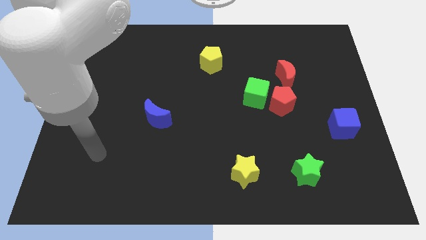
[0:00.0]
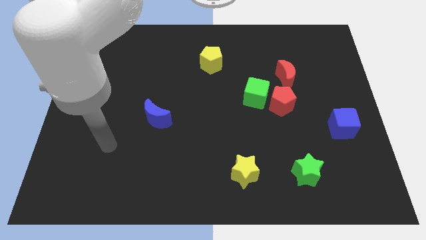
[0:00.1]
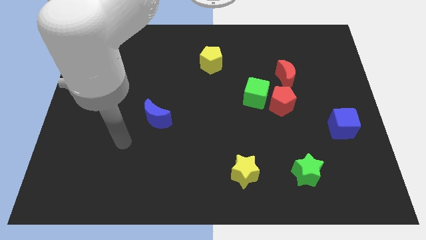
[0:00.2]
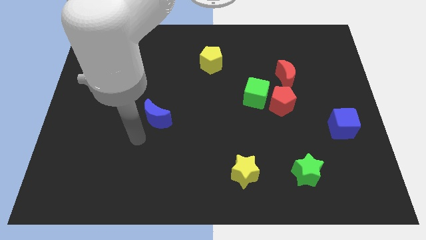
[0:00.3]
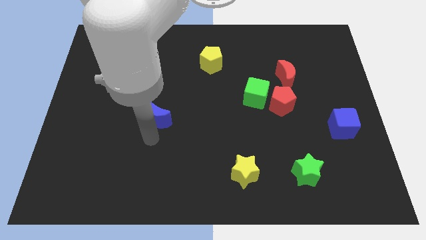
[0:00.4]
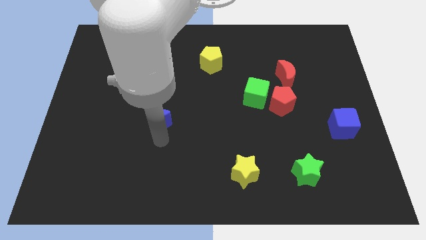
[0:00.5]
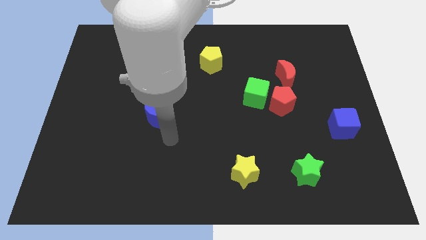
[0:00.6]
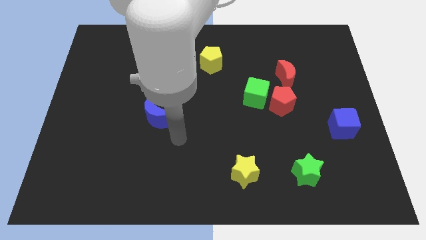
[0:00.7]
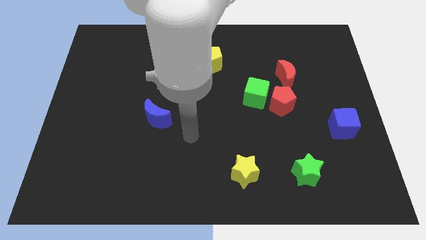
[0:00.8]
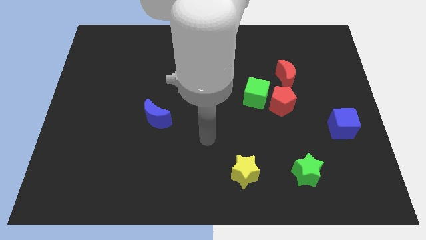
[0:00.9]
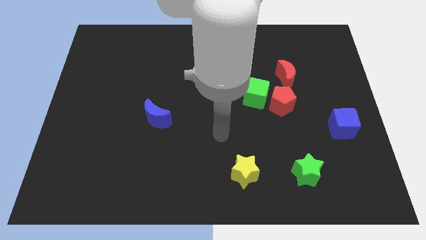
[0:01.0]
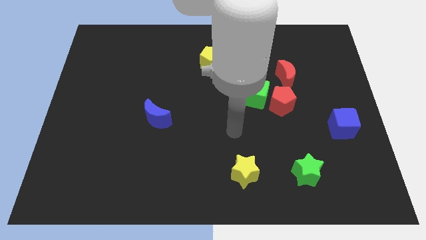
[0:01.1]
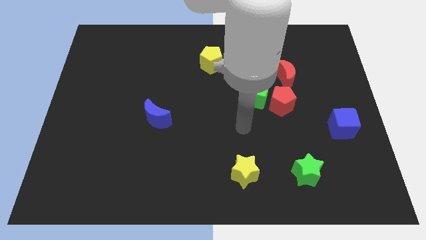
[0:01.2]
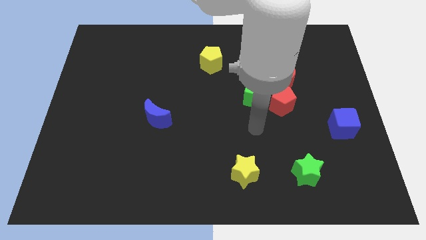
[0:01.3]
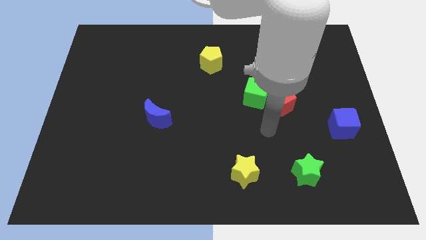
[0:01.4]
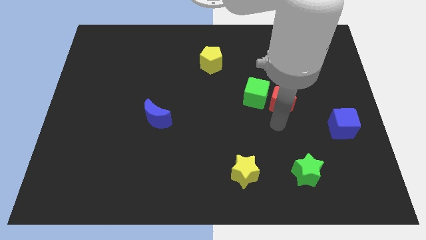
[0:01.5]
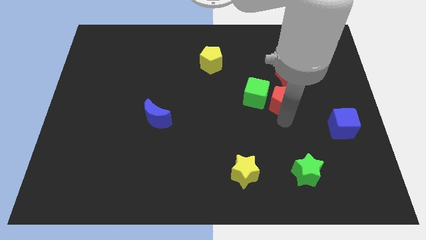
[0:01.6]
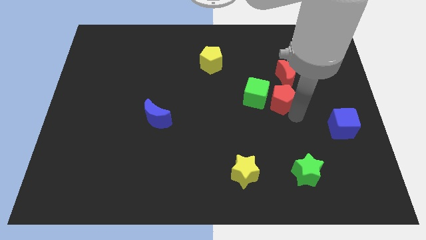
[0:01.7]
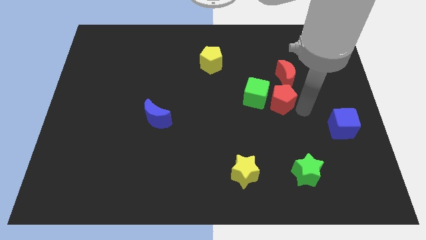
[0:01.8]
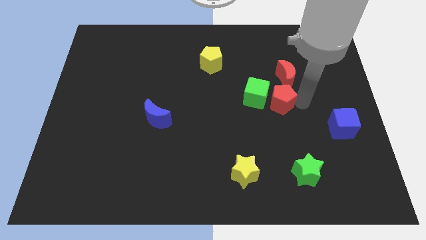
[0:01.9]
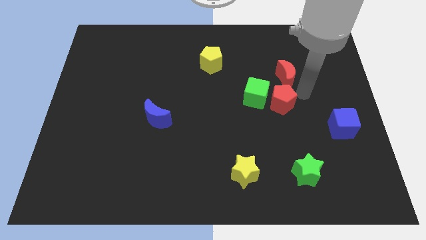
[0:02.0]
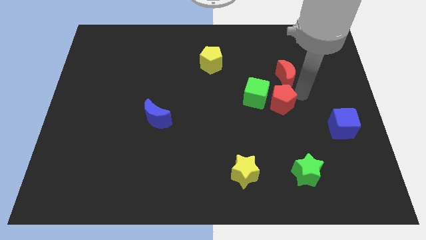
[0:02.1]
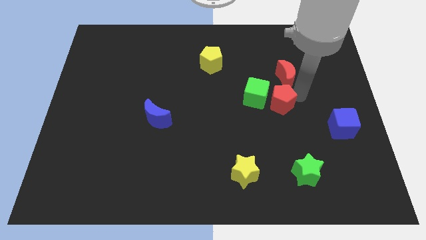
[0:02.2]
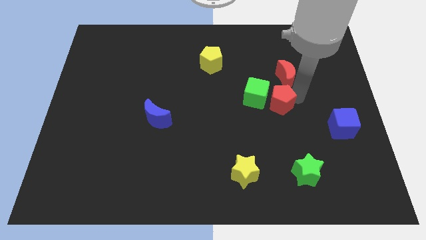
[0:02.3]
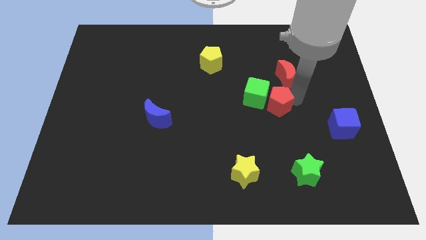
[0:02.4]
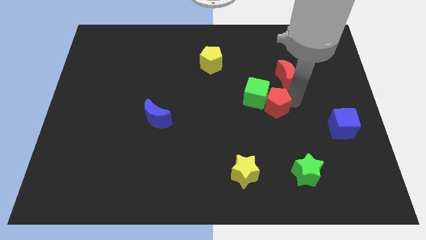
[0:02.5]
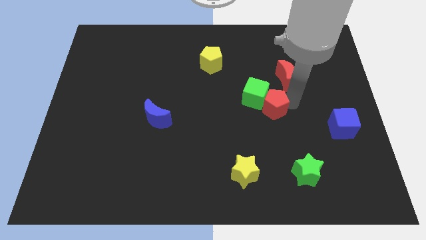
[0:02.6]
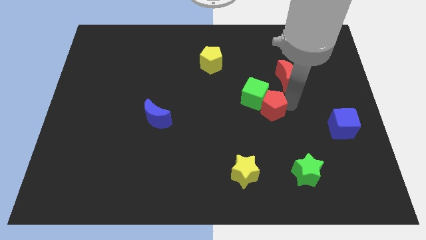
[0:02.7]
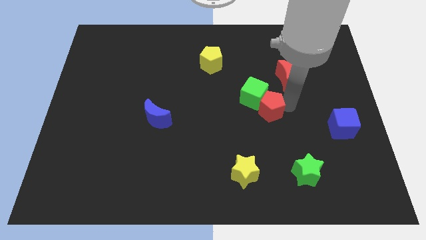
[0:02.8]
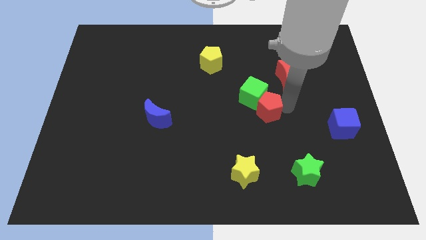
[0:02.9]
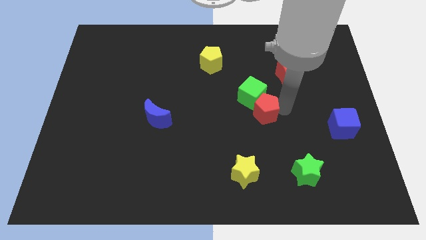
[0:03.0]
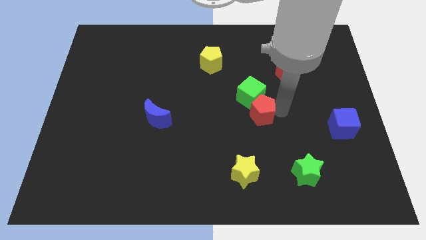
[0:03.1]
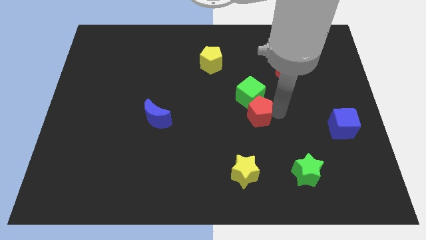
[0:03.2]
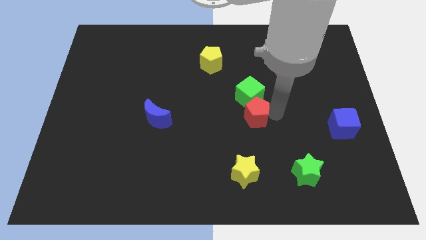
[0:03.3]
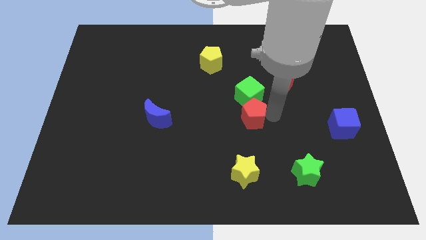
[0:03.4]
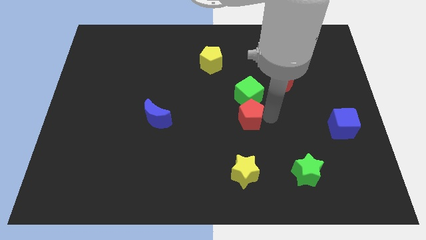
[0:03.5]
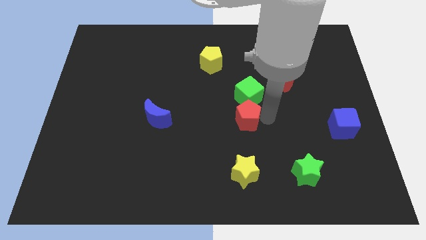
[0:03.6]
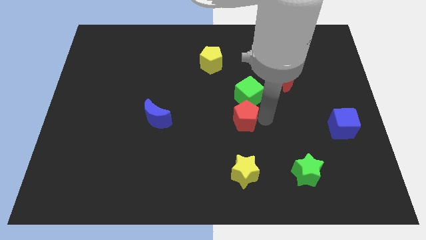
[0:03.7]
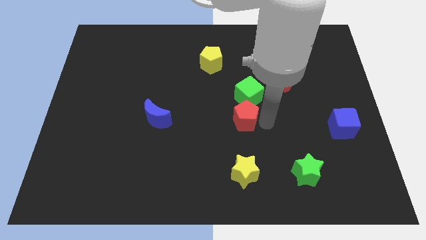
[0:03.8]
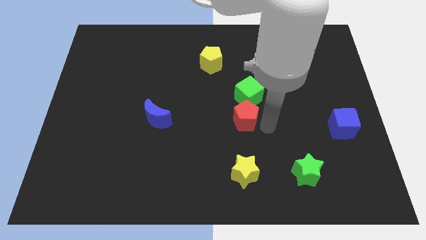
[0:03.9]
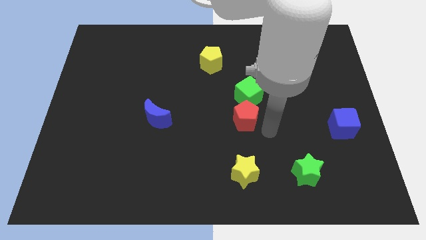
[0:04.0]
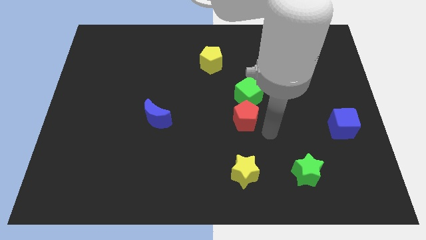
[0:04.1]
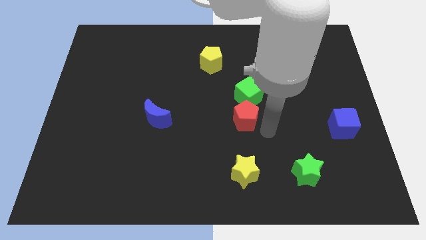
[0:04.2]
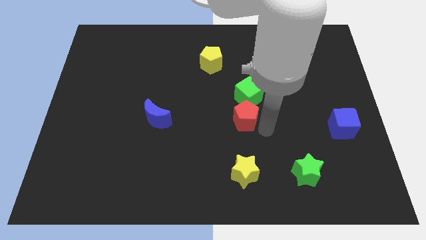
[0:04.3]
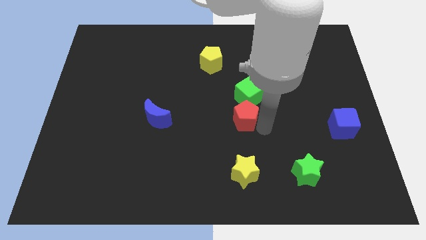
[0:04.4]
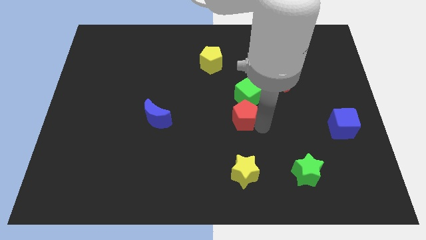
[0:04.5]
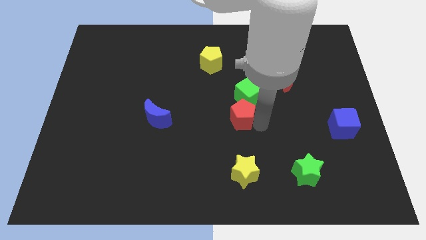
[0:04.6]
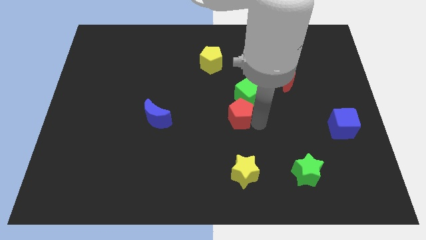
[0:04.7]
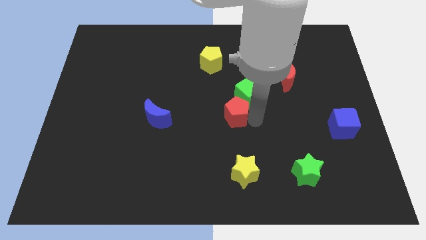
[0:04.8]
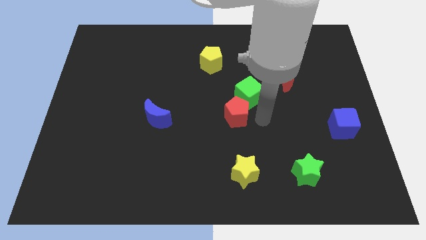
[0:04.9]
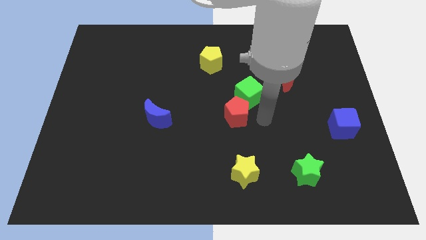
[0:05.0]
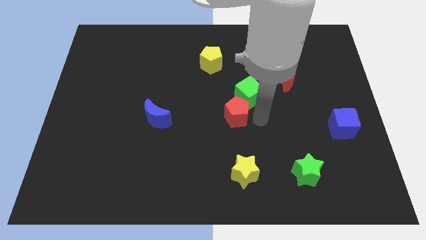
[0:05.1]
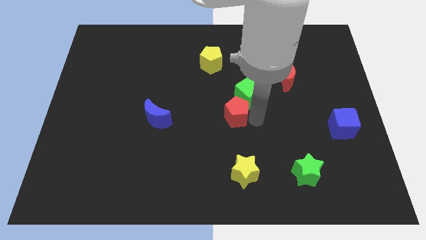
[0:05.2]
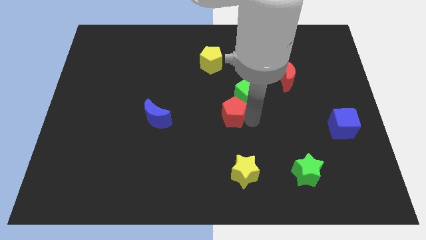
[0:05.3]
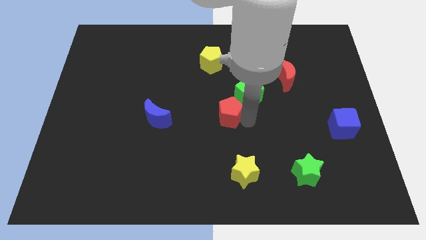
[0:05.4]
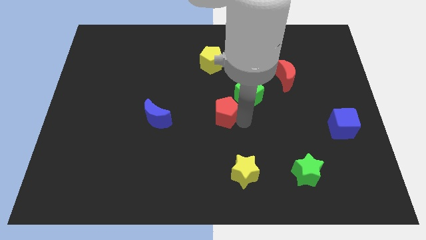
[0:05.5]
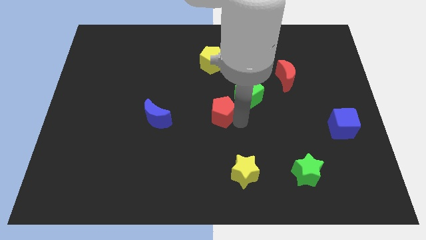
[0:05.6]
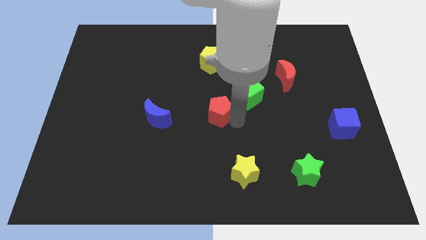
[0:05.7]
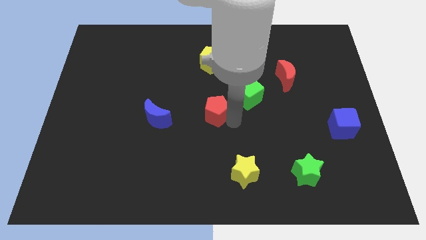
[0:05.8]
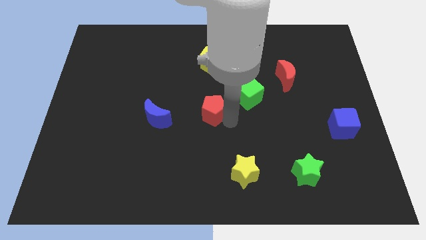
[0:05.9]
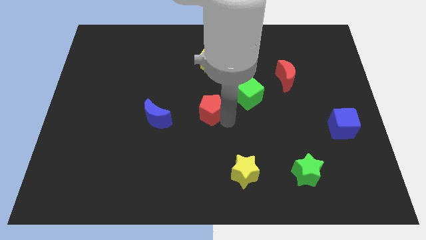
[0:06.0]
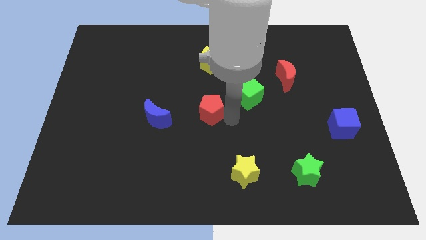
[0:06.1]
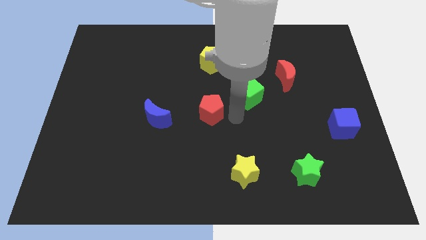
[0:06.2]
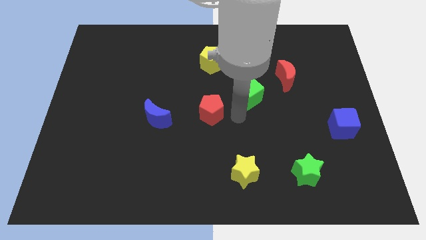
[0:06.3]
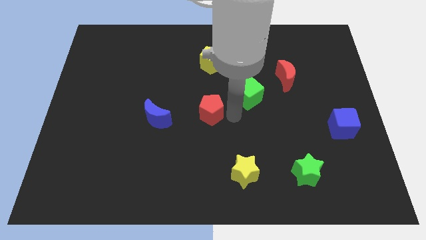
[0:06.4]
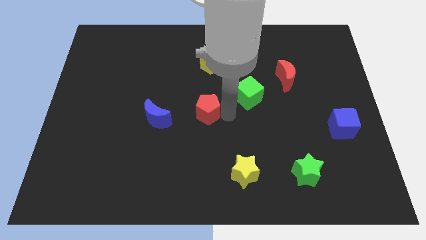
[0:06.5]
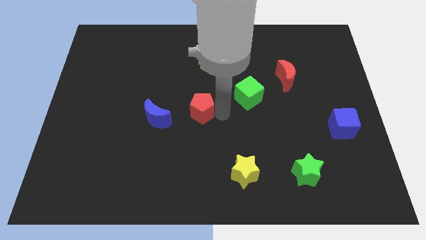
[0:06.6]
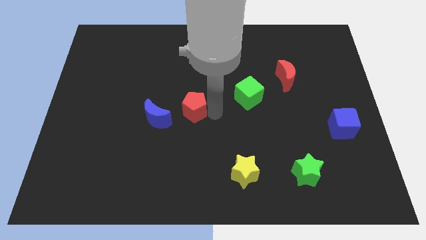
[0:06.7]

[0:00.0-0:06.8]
push the red pentagon to the left

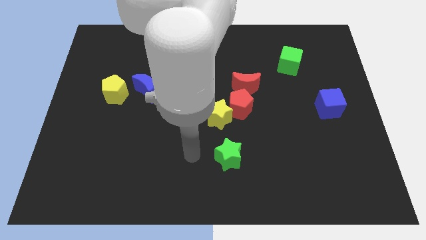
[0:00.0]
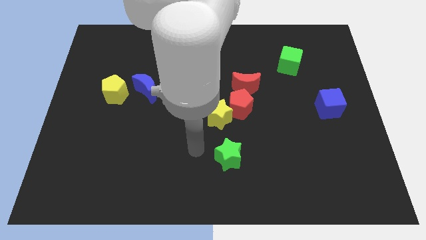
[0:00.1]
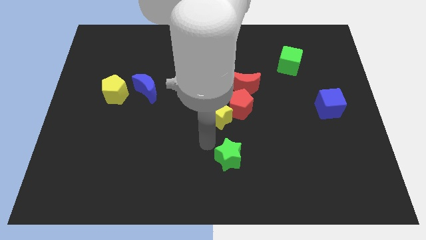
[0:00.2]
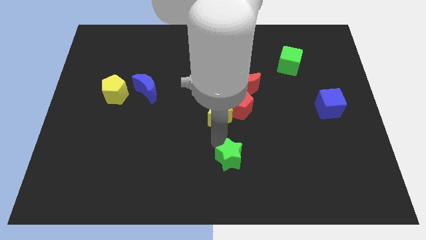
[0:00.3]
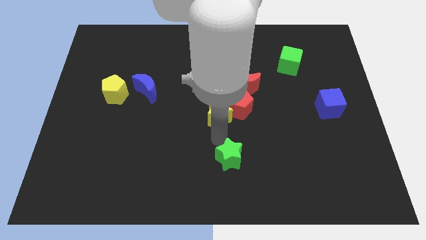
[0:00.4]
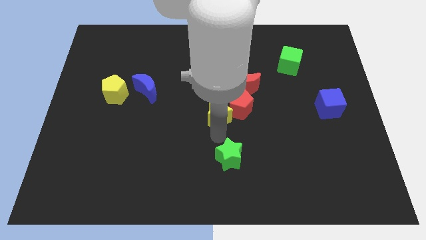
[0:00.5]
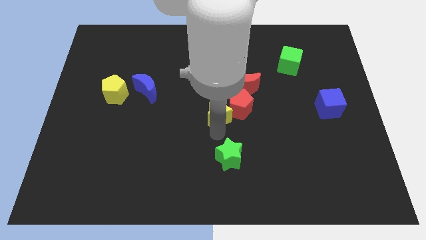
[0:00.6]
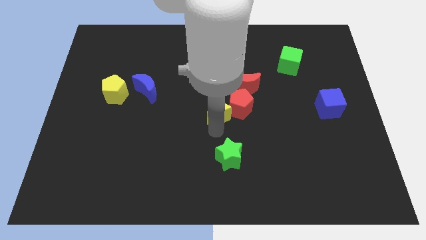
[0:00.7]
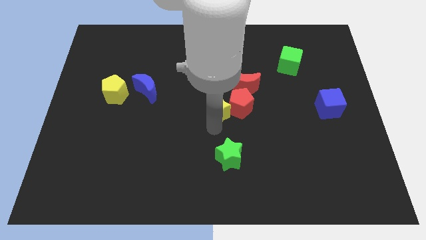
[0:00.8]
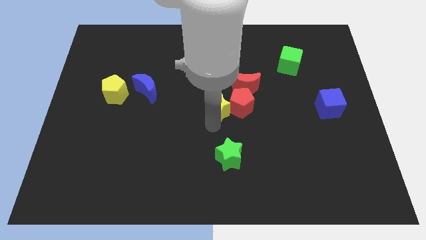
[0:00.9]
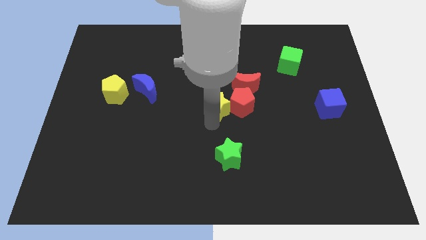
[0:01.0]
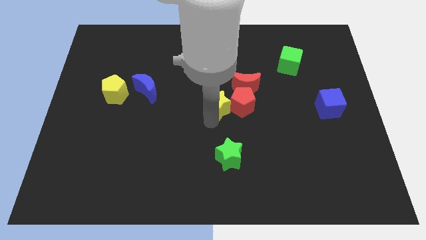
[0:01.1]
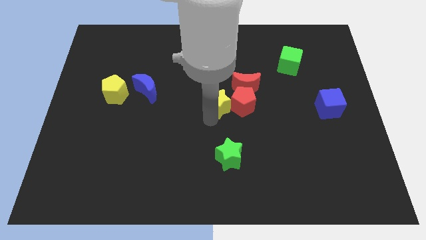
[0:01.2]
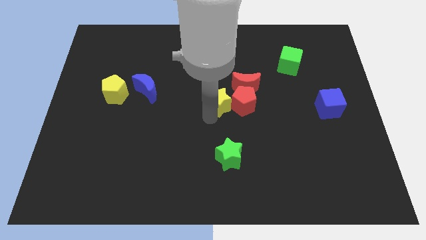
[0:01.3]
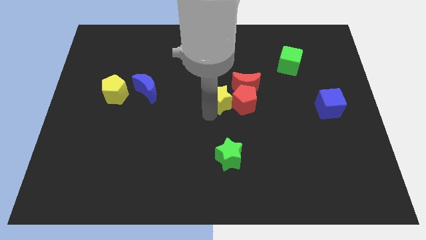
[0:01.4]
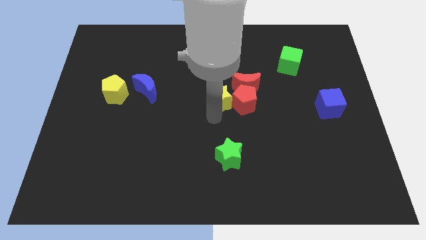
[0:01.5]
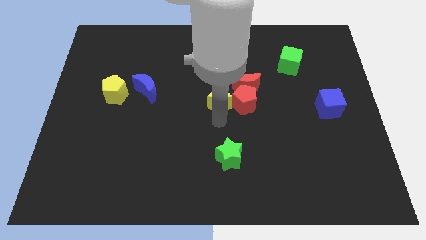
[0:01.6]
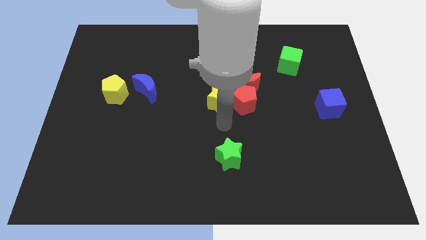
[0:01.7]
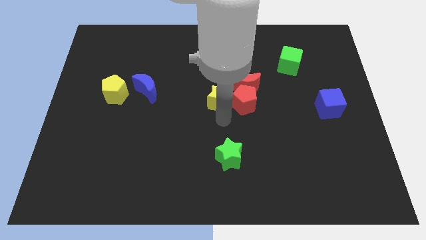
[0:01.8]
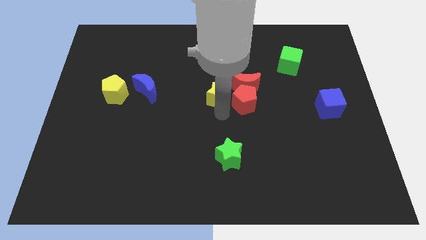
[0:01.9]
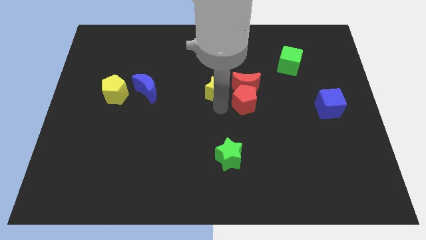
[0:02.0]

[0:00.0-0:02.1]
slightly move the yellow star upwards
